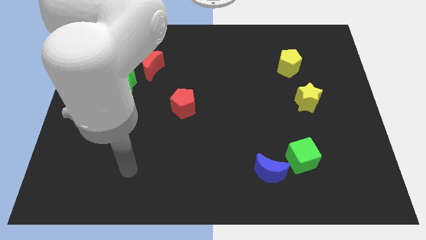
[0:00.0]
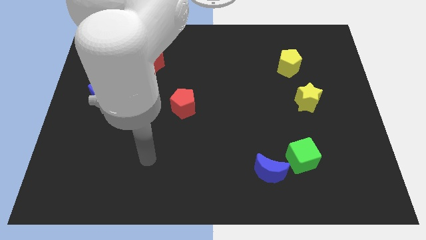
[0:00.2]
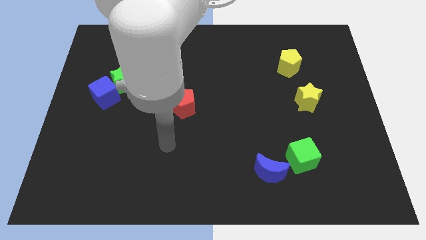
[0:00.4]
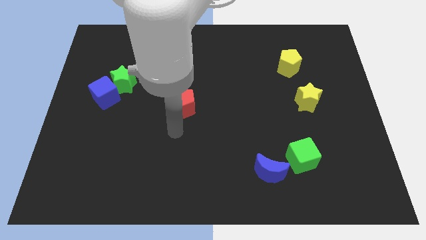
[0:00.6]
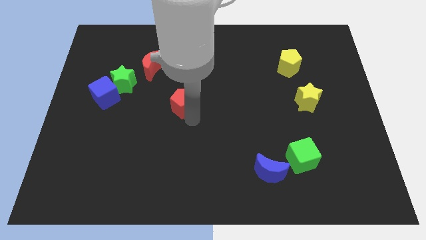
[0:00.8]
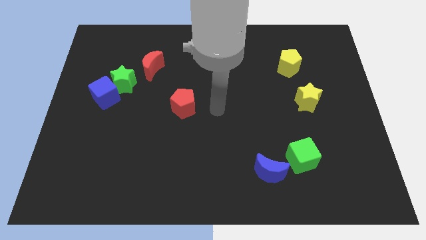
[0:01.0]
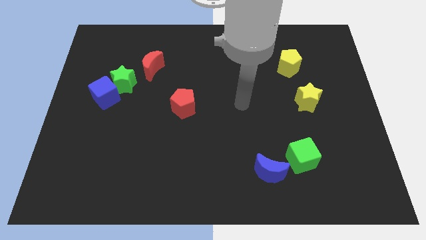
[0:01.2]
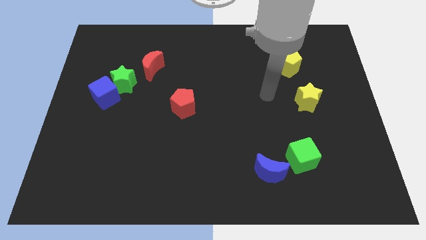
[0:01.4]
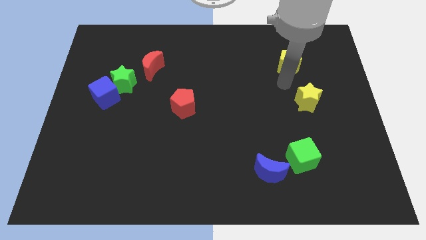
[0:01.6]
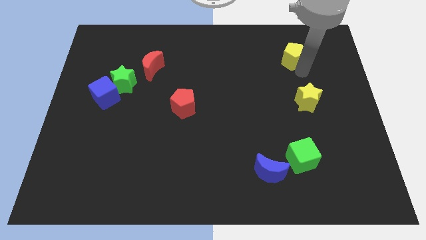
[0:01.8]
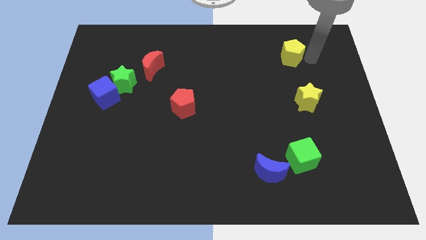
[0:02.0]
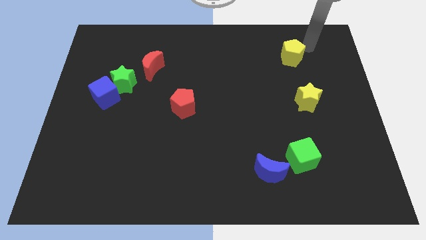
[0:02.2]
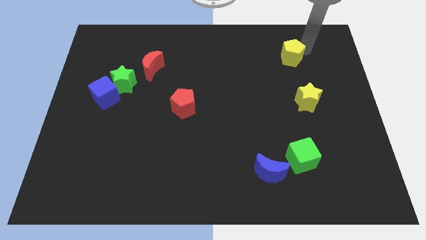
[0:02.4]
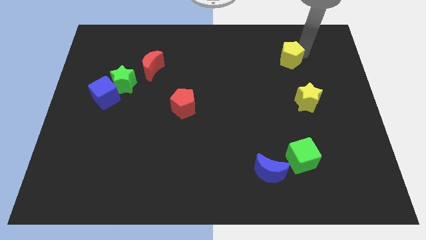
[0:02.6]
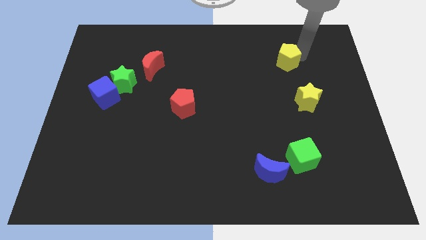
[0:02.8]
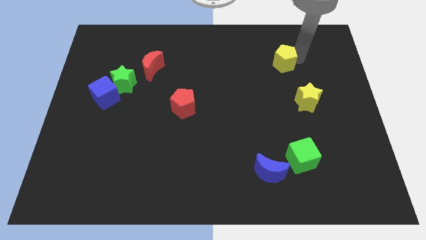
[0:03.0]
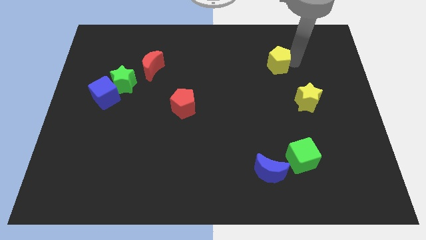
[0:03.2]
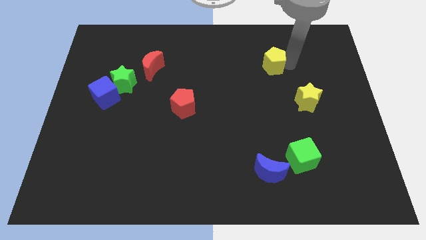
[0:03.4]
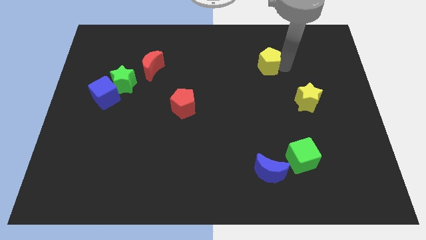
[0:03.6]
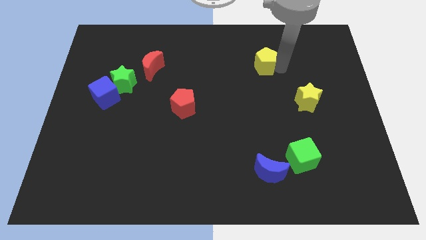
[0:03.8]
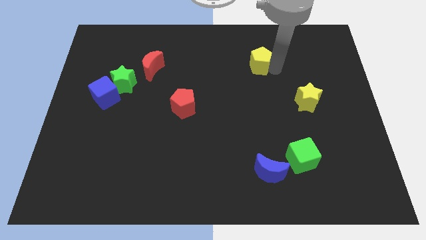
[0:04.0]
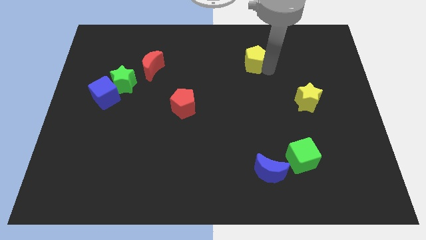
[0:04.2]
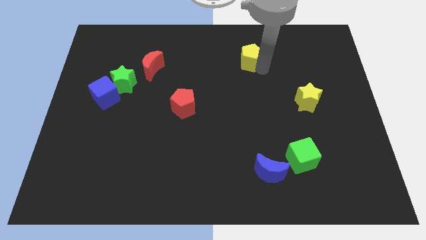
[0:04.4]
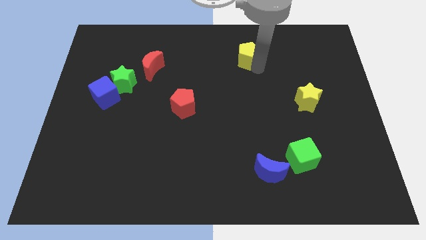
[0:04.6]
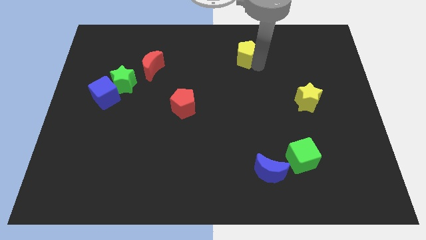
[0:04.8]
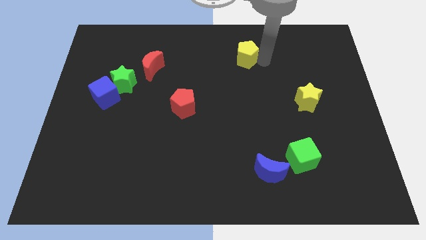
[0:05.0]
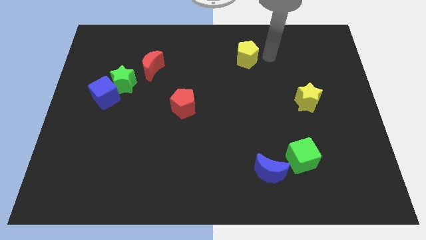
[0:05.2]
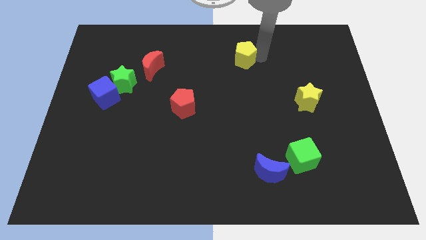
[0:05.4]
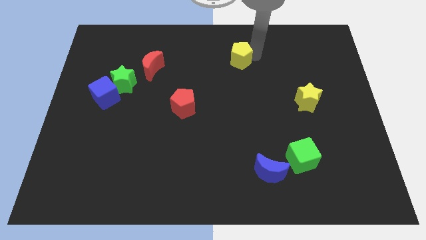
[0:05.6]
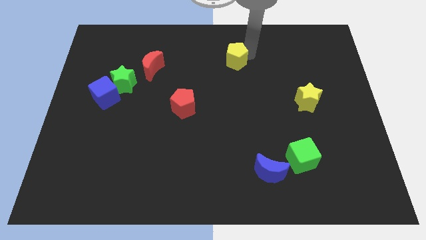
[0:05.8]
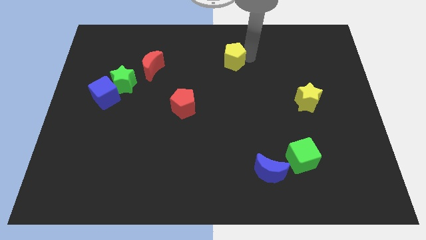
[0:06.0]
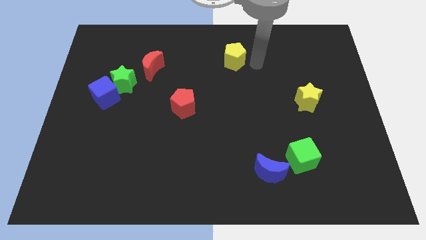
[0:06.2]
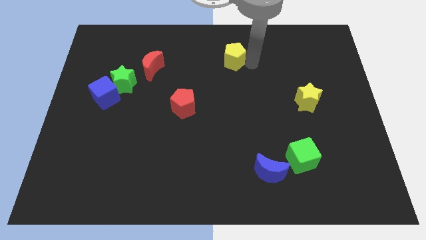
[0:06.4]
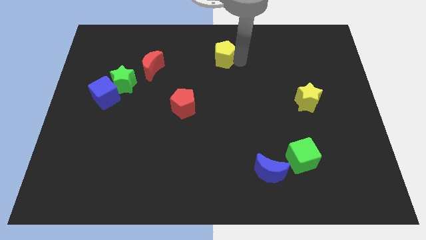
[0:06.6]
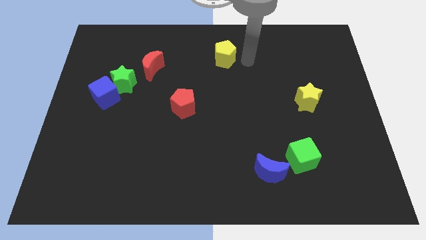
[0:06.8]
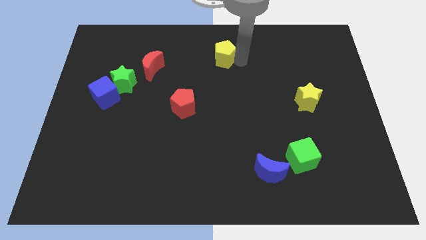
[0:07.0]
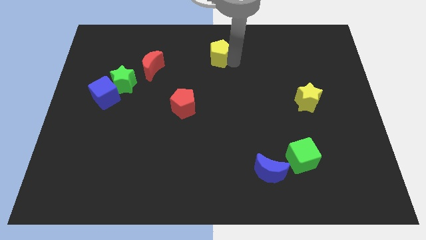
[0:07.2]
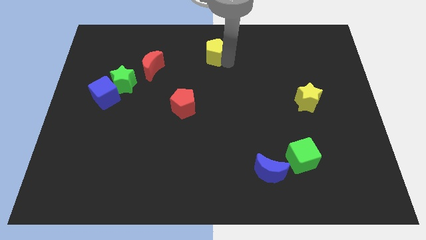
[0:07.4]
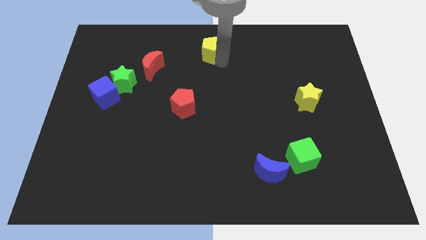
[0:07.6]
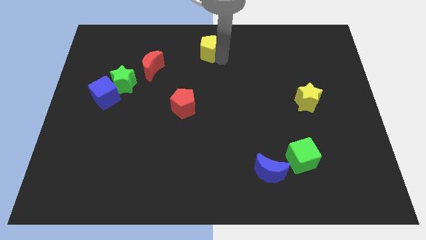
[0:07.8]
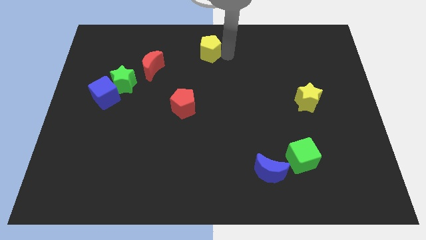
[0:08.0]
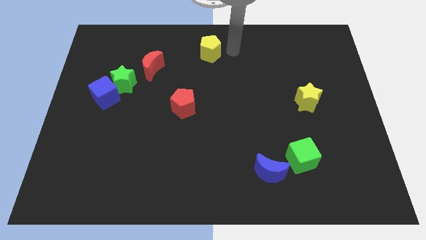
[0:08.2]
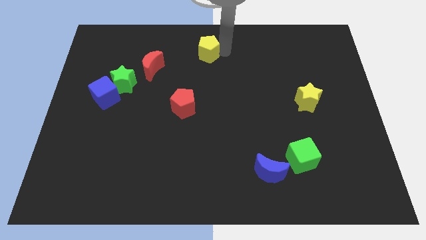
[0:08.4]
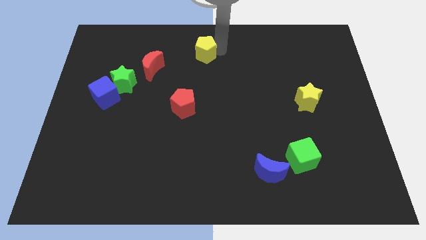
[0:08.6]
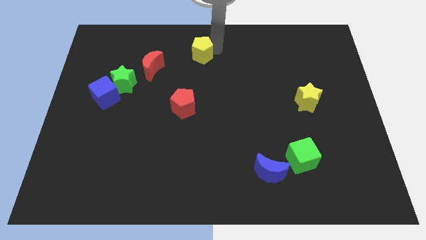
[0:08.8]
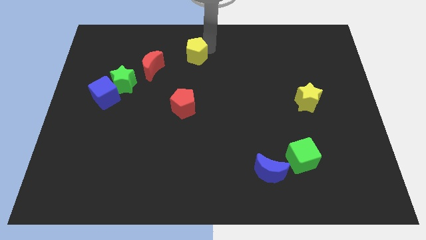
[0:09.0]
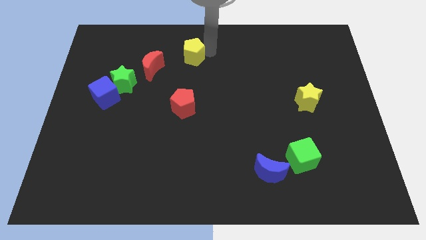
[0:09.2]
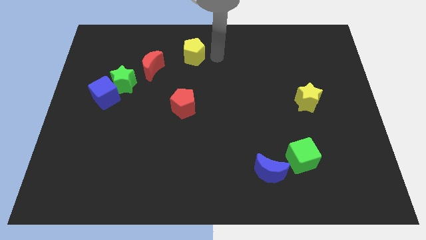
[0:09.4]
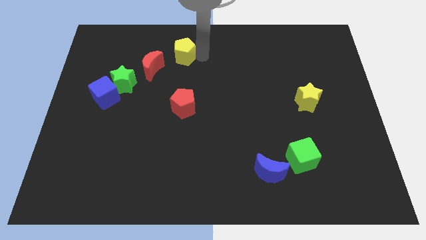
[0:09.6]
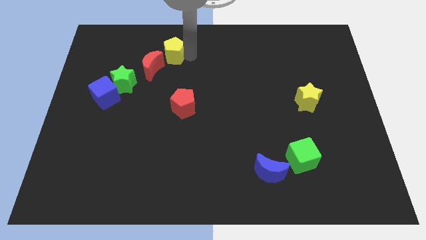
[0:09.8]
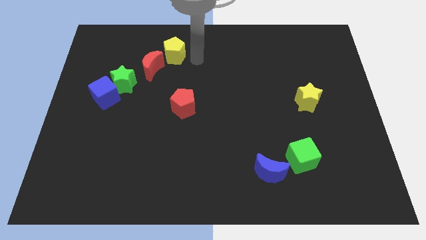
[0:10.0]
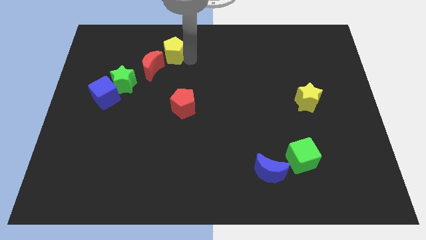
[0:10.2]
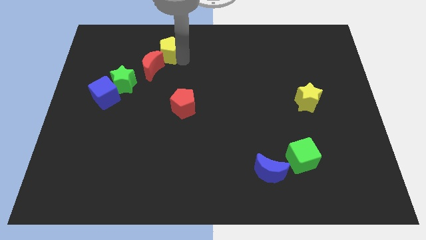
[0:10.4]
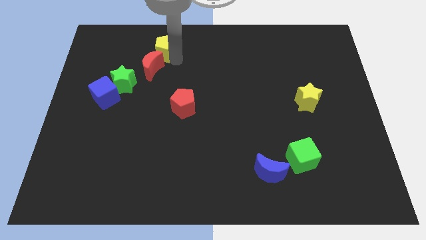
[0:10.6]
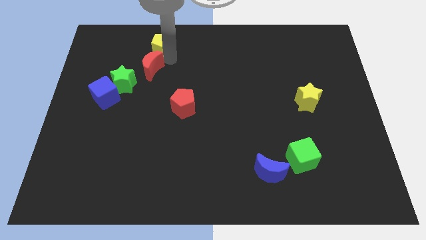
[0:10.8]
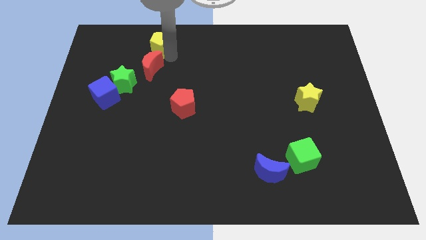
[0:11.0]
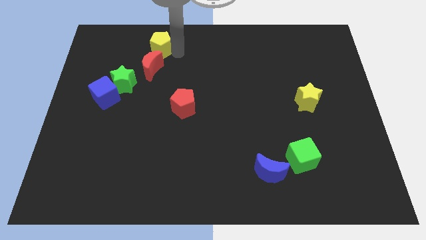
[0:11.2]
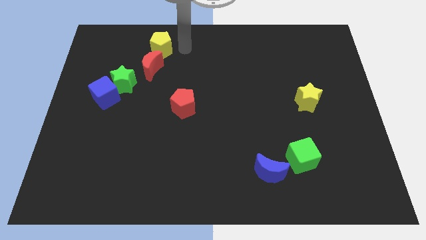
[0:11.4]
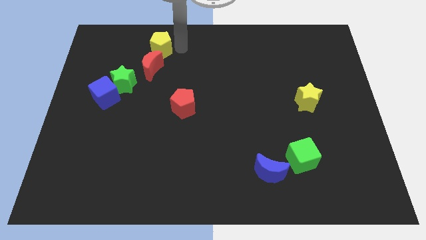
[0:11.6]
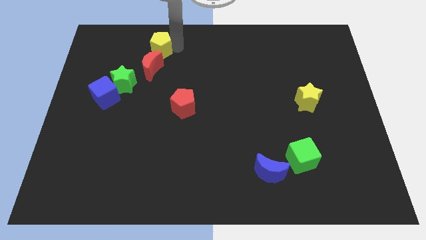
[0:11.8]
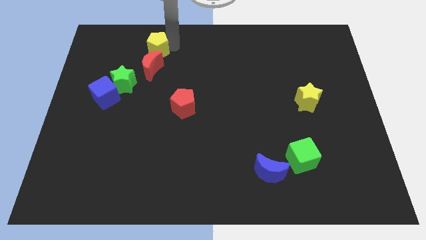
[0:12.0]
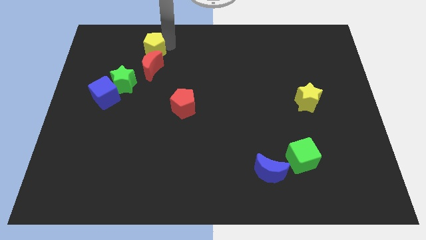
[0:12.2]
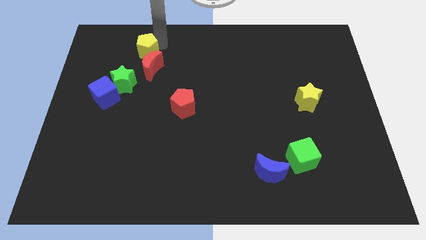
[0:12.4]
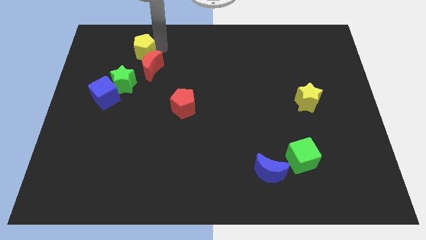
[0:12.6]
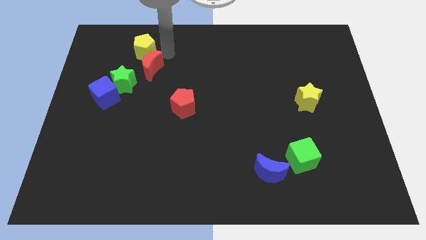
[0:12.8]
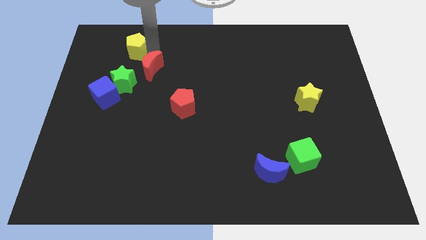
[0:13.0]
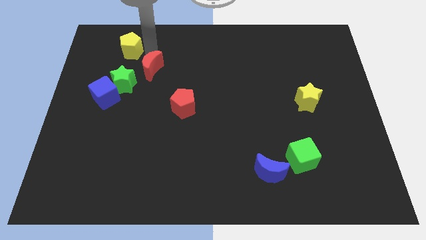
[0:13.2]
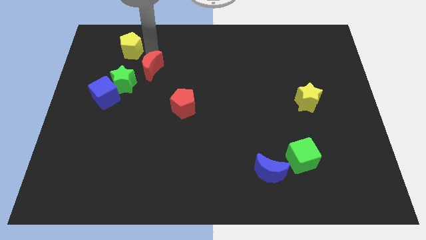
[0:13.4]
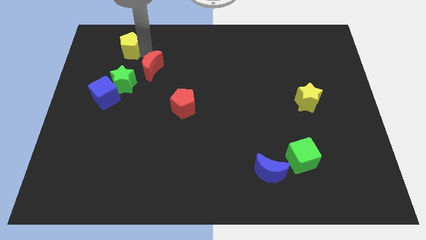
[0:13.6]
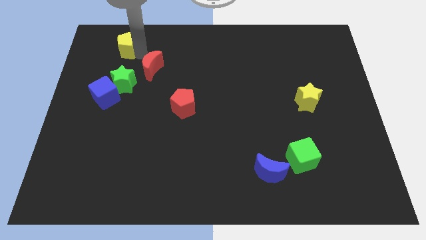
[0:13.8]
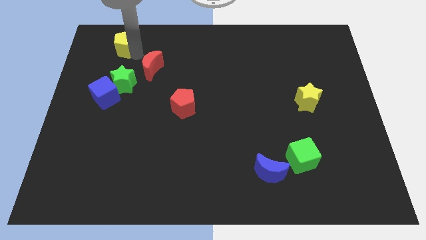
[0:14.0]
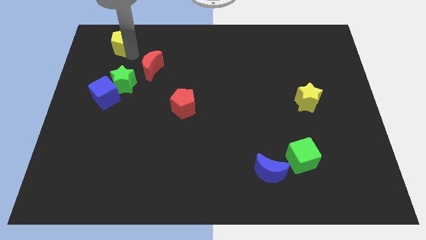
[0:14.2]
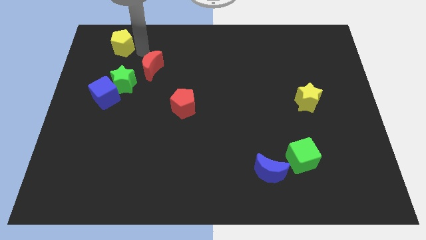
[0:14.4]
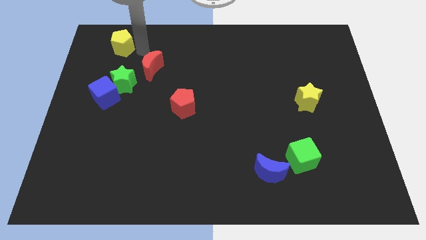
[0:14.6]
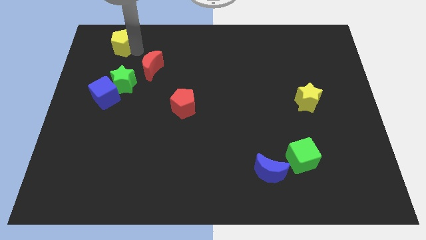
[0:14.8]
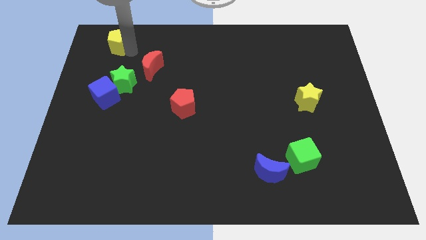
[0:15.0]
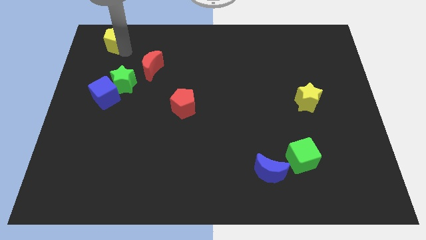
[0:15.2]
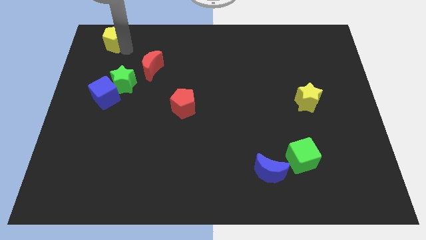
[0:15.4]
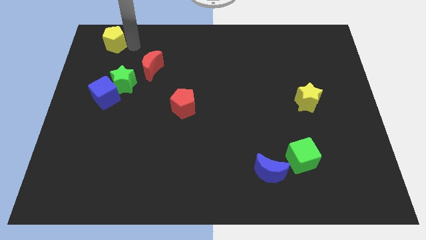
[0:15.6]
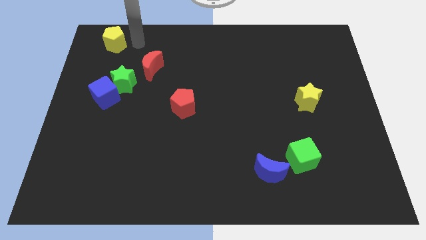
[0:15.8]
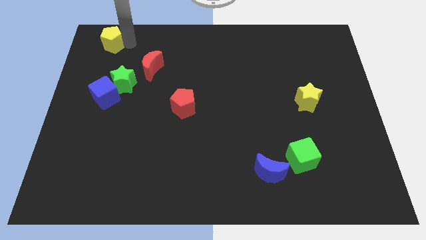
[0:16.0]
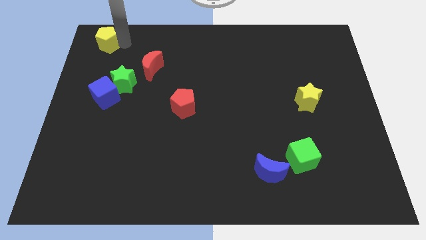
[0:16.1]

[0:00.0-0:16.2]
put the yellow pentagon to the top left of the board
